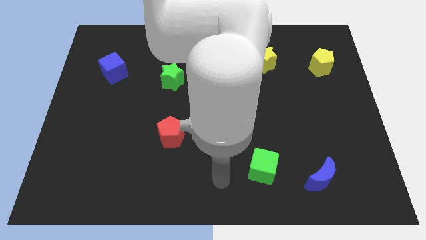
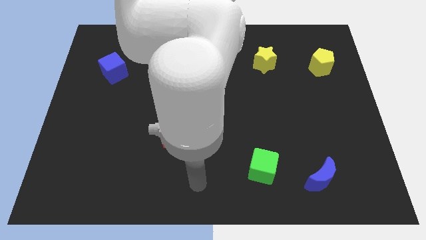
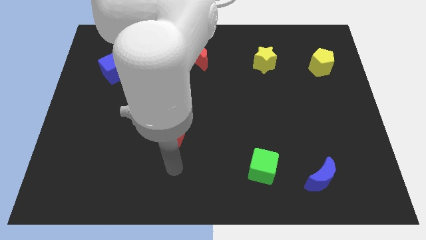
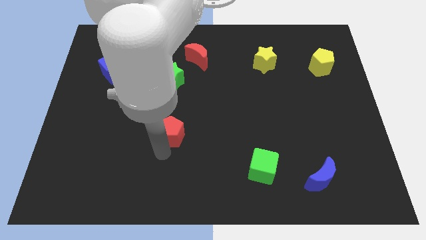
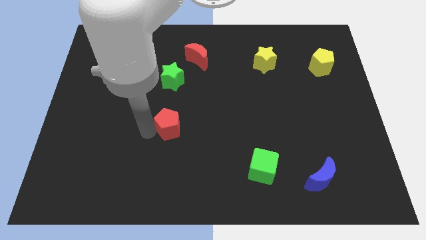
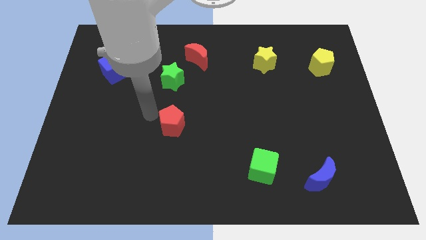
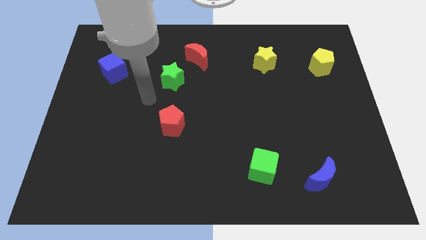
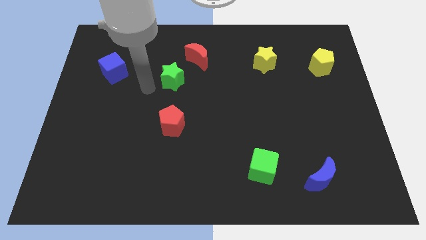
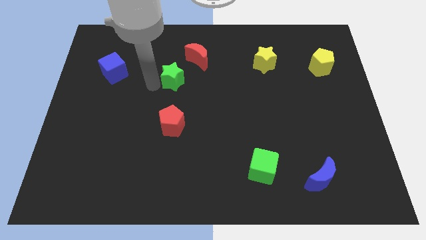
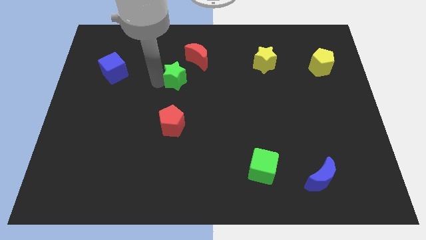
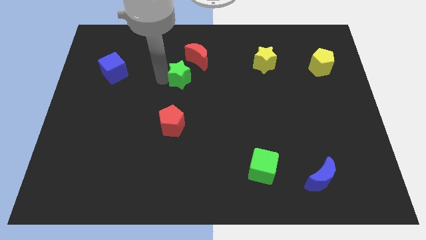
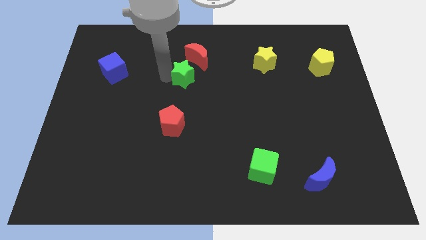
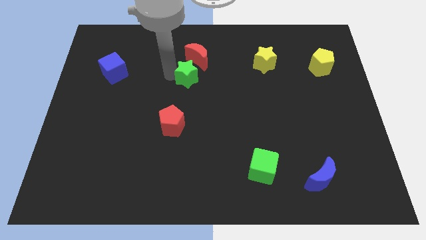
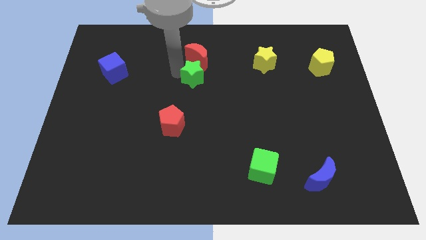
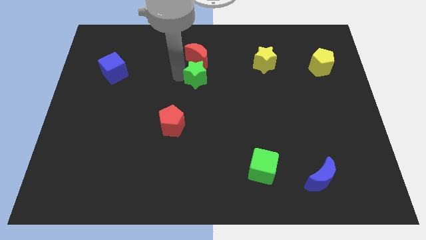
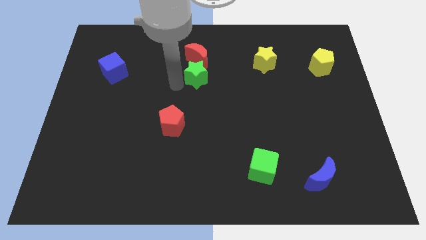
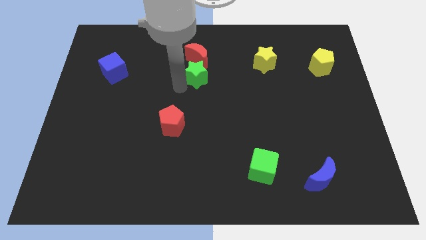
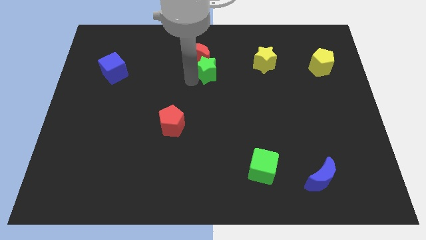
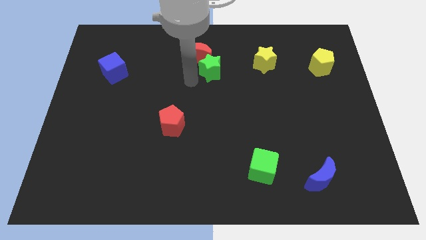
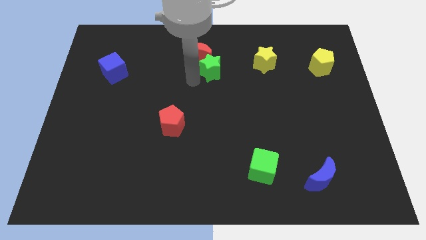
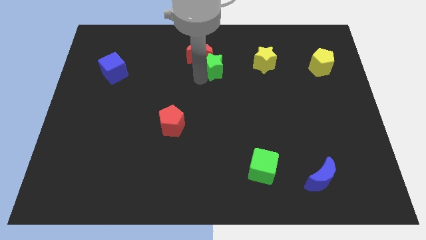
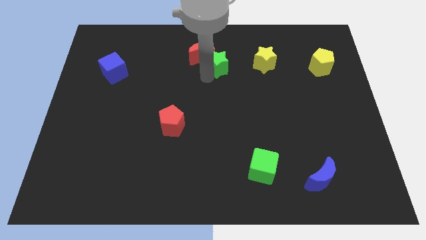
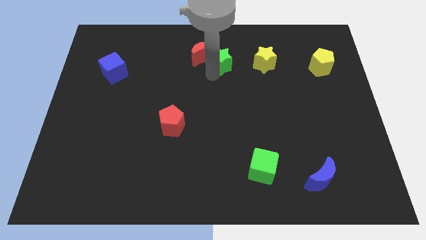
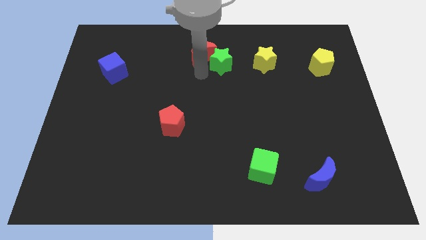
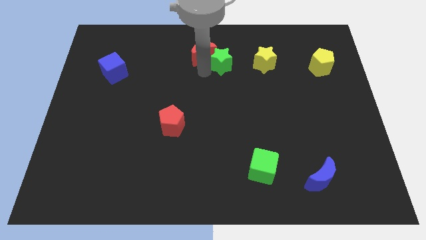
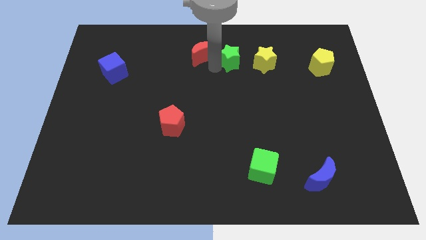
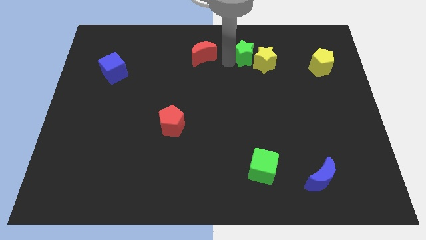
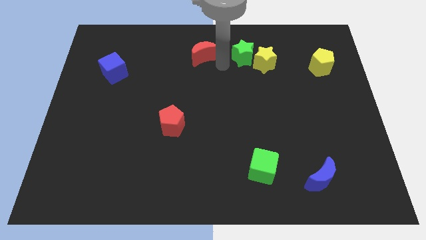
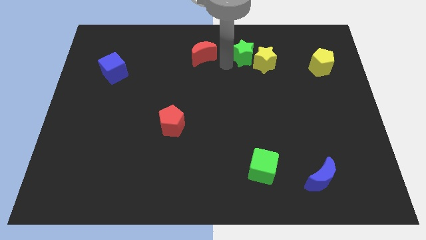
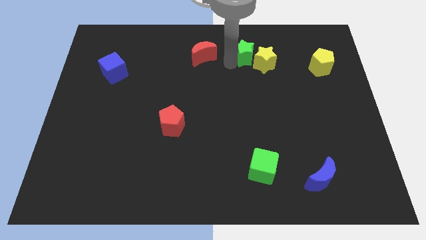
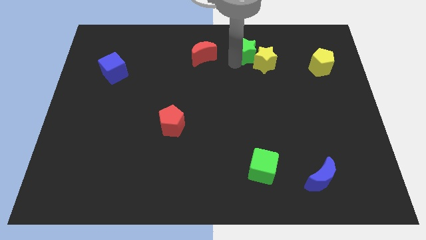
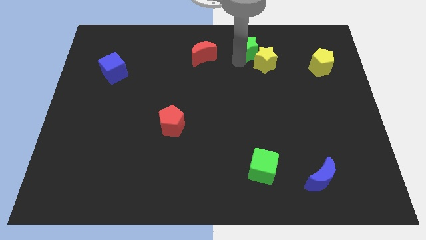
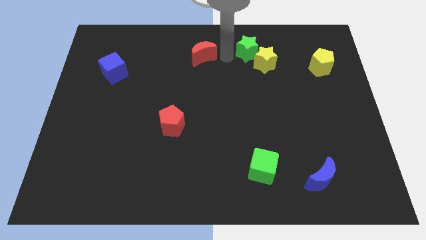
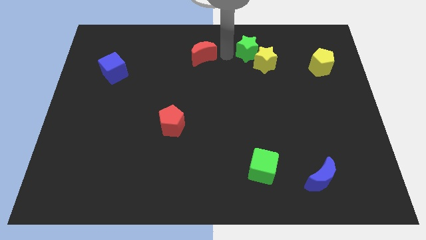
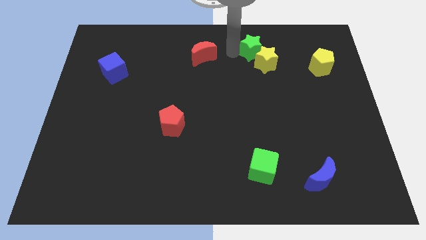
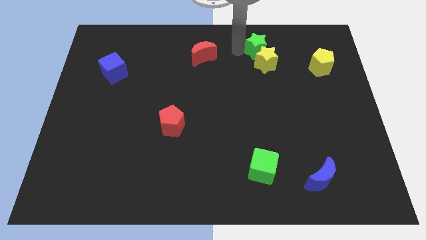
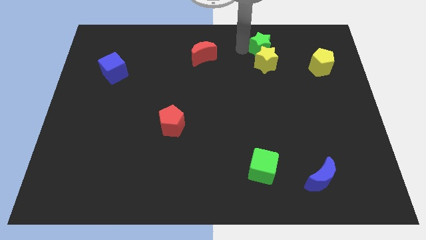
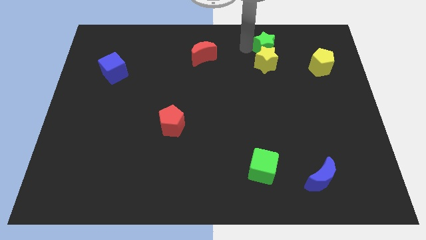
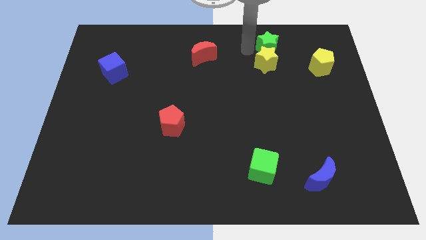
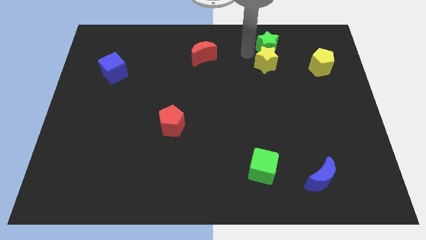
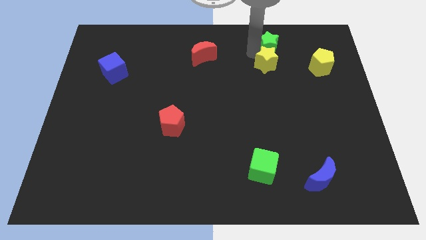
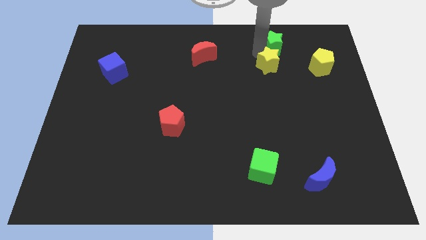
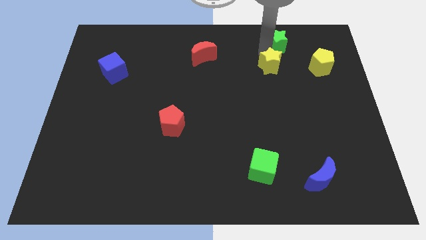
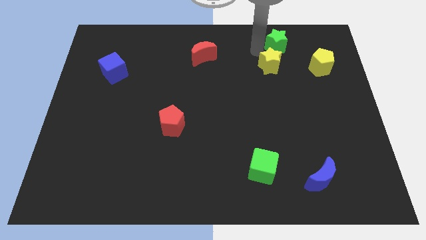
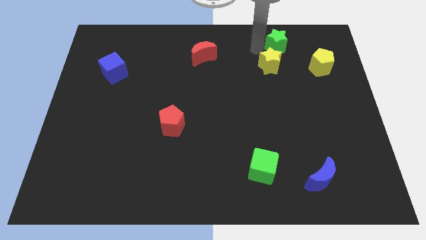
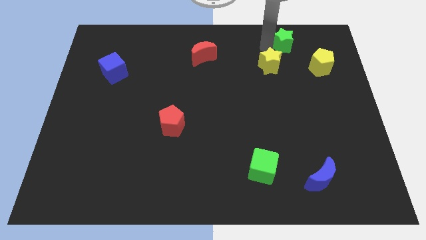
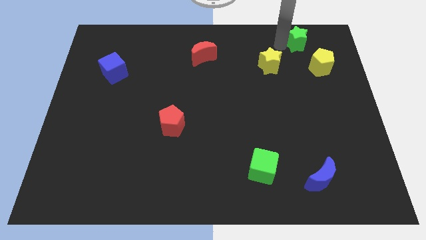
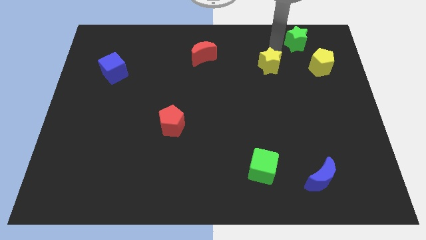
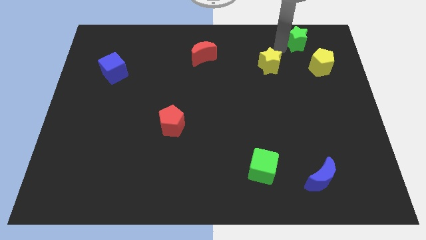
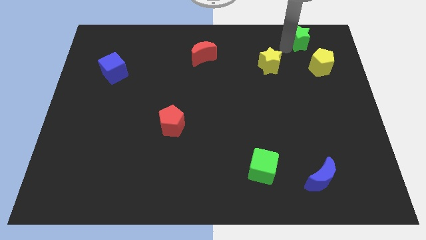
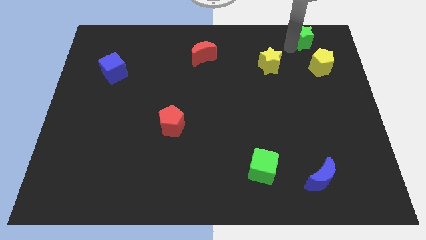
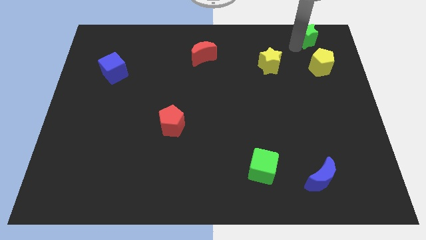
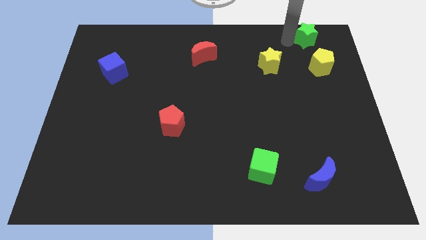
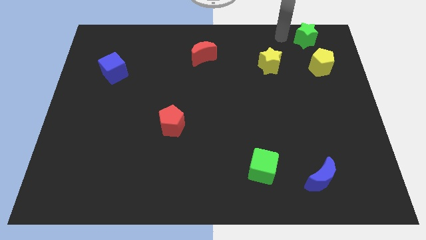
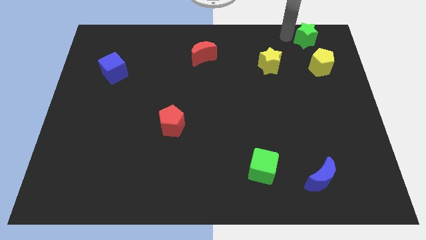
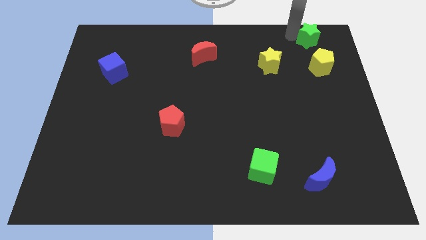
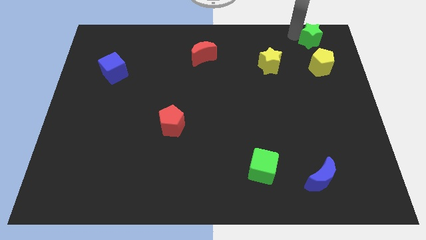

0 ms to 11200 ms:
put the green star to the top right

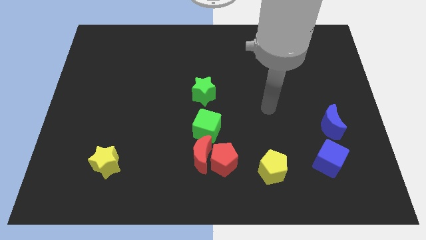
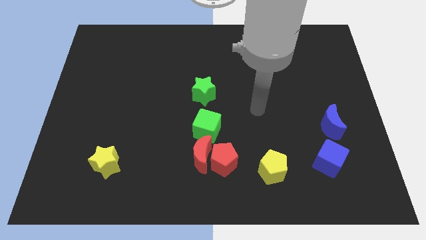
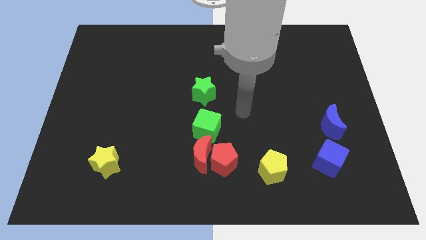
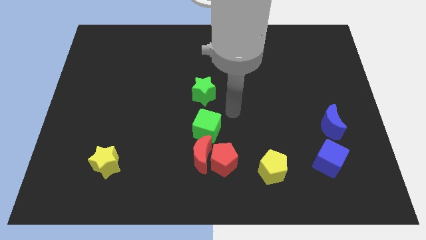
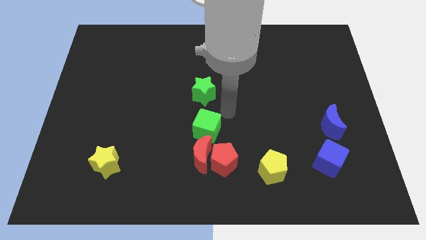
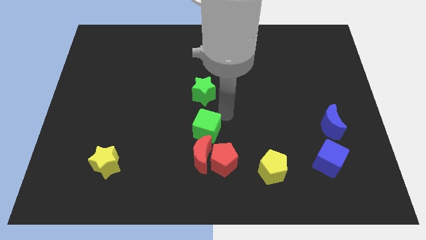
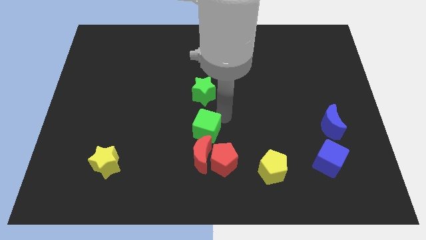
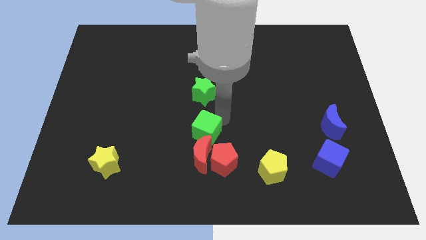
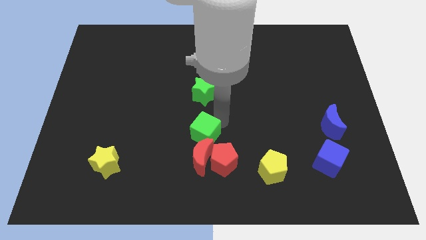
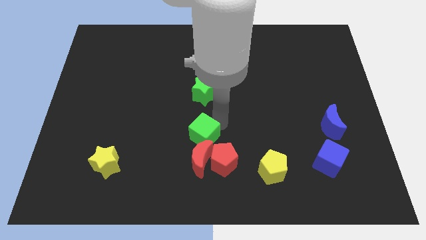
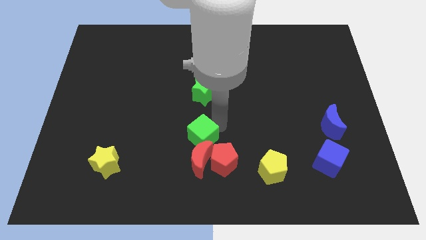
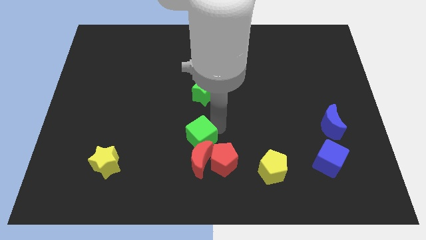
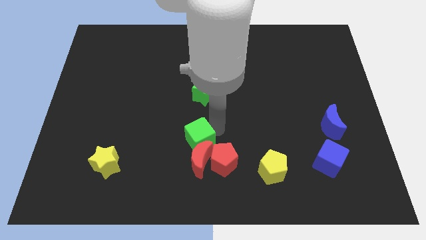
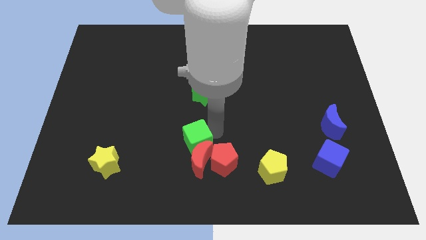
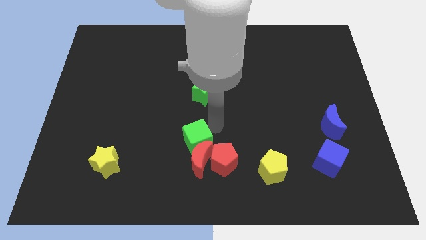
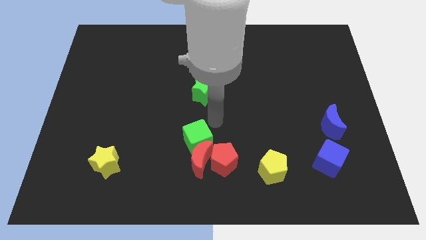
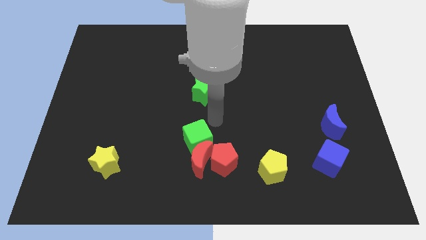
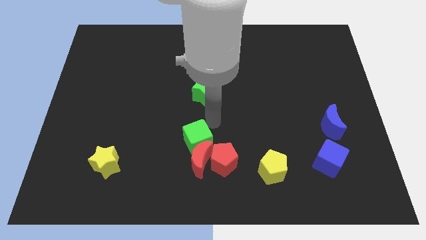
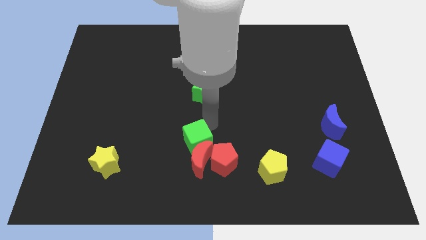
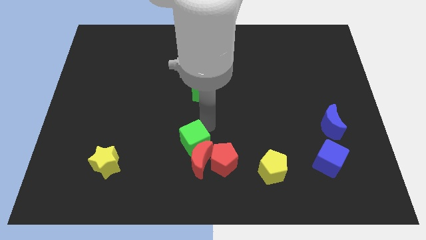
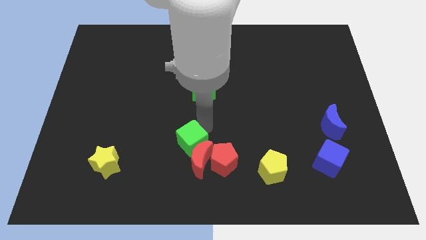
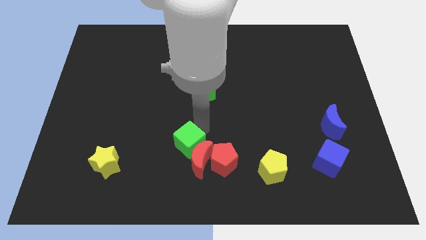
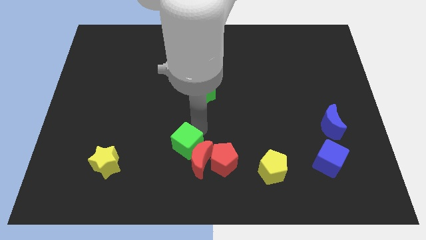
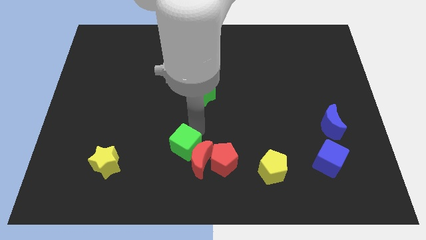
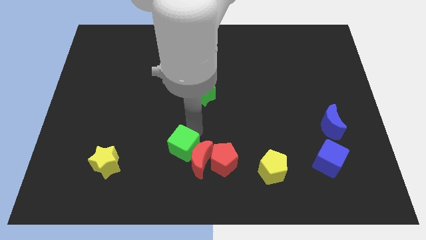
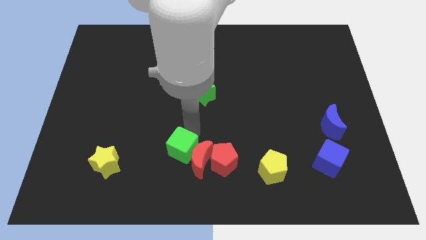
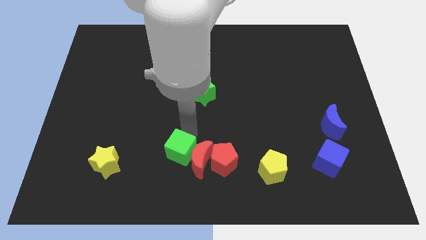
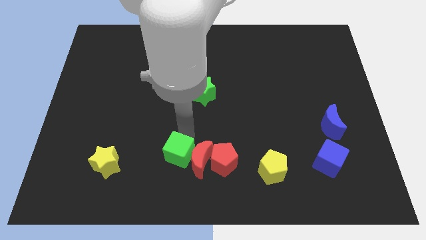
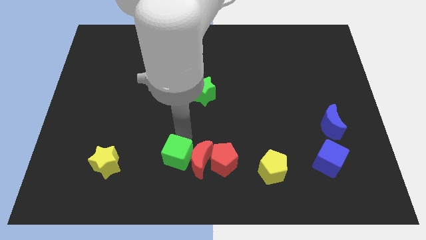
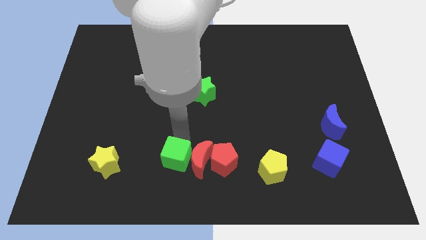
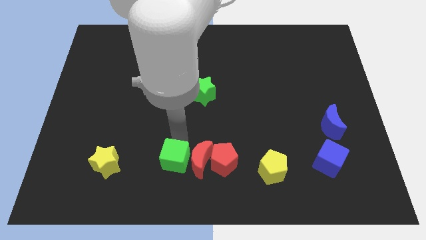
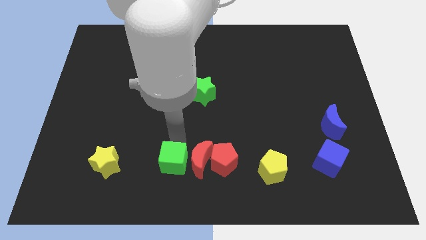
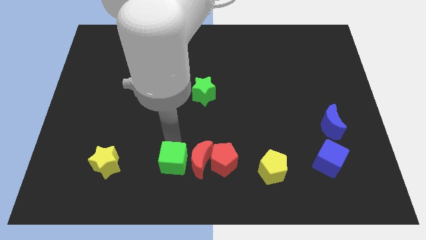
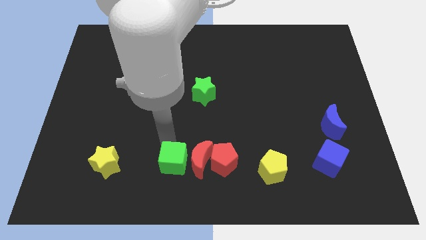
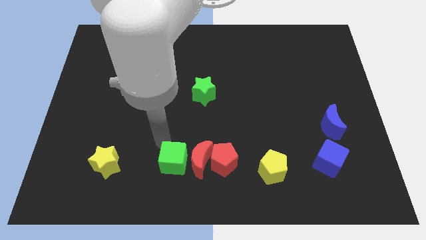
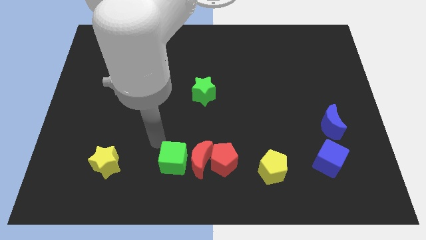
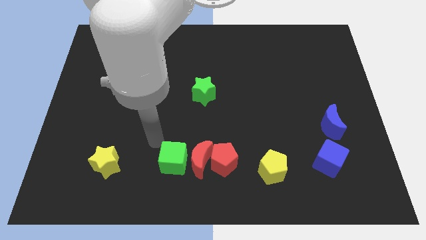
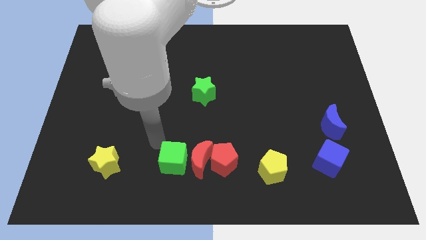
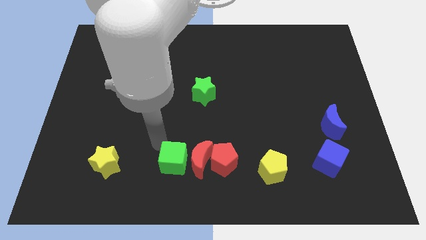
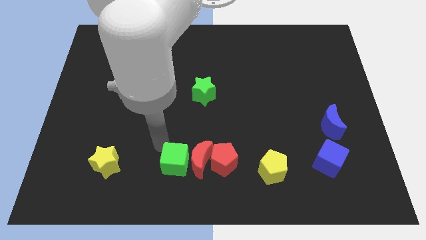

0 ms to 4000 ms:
push the green cube to the bottom
